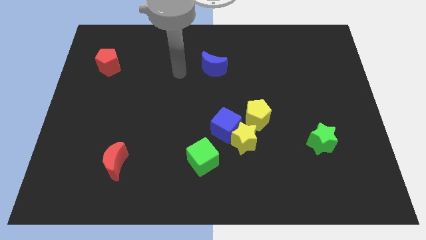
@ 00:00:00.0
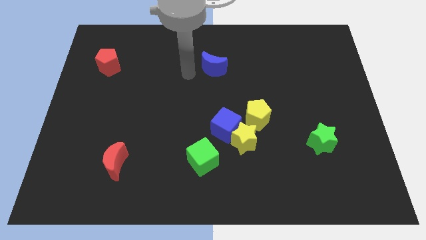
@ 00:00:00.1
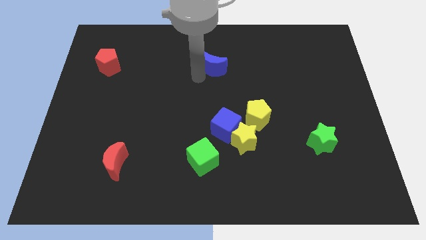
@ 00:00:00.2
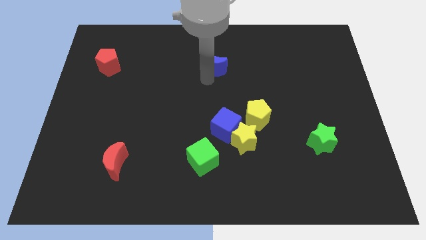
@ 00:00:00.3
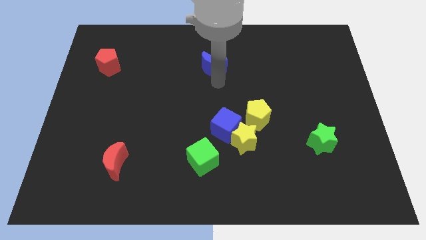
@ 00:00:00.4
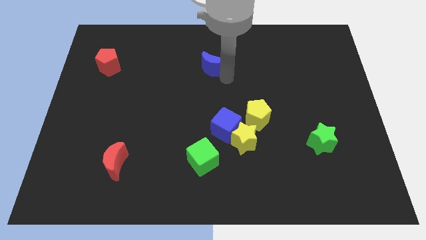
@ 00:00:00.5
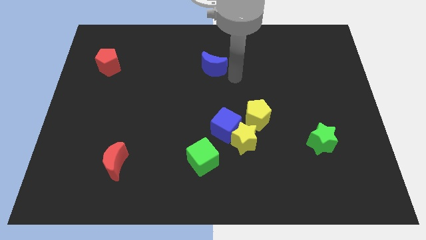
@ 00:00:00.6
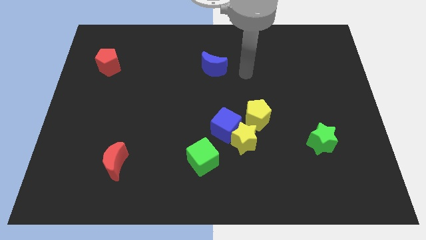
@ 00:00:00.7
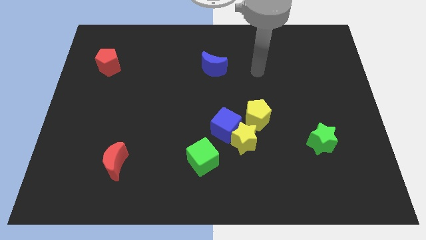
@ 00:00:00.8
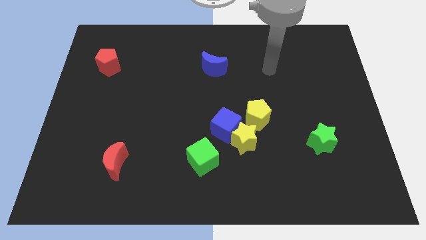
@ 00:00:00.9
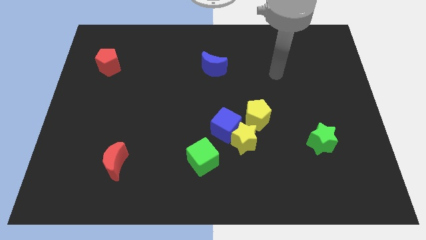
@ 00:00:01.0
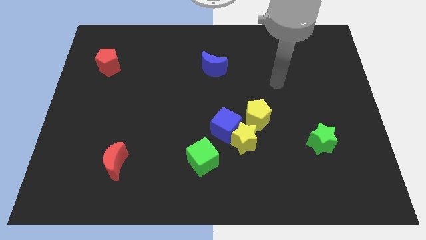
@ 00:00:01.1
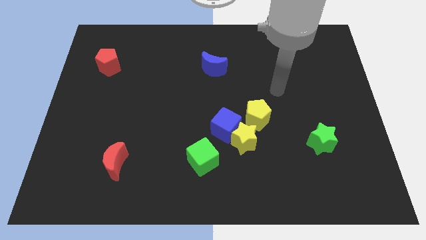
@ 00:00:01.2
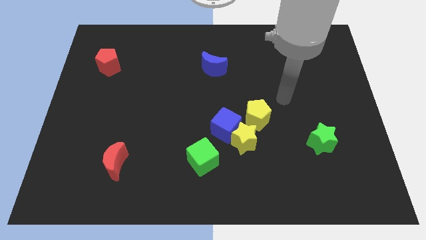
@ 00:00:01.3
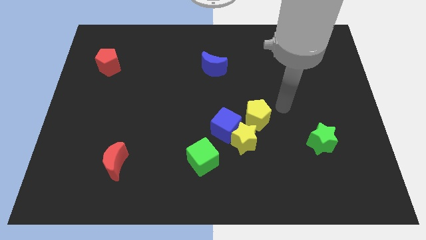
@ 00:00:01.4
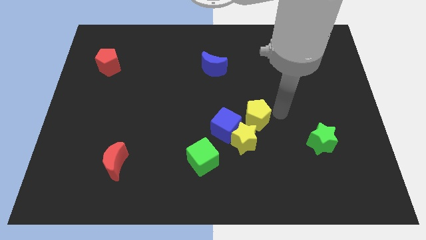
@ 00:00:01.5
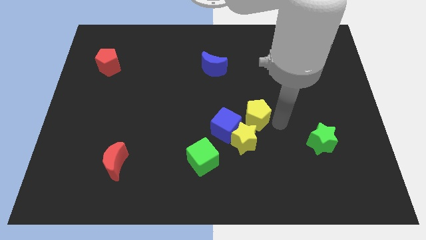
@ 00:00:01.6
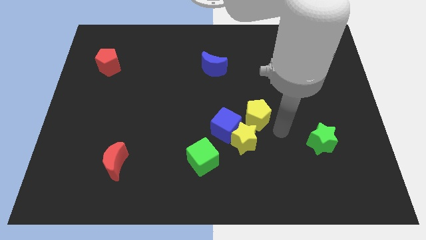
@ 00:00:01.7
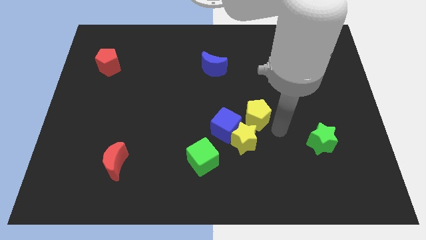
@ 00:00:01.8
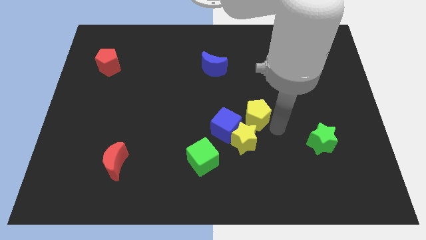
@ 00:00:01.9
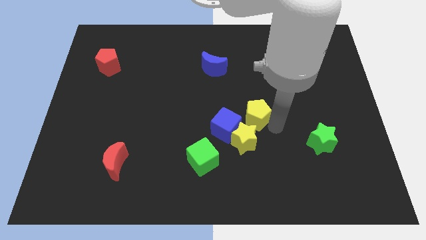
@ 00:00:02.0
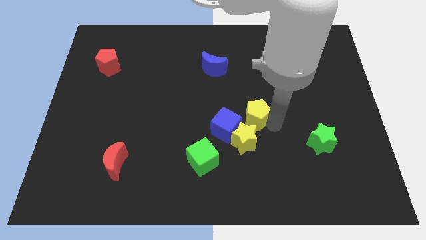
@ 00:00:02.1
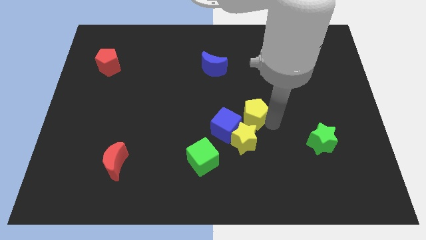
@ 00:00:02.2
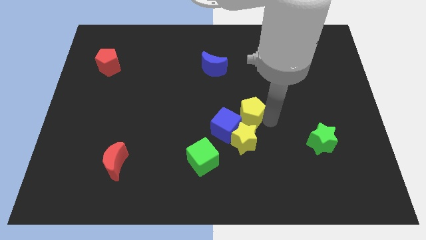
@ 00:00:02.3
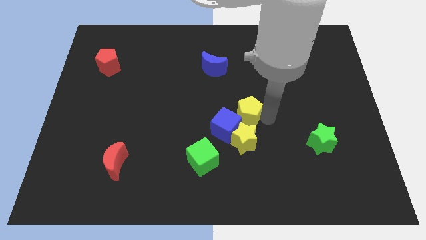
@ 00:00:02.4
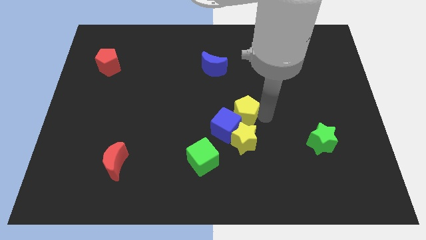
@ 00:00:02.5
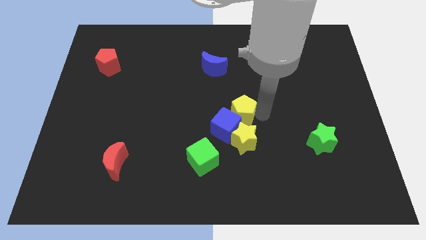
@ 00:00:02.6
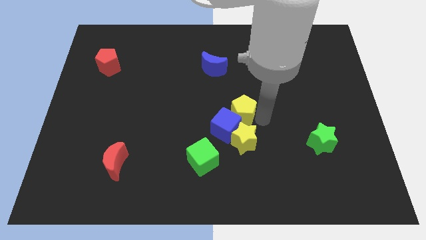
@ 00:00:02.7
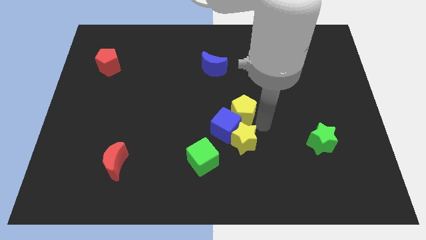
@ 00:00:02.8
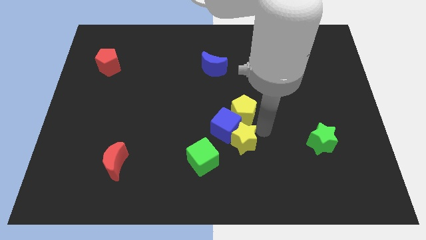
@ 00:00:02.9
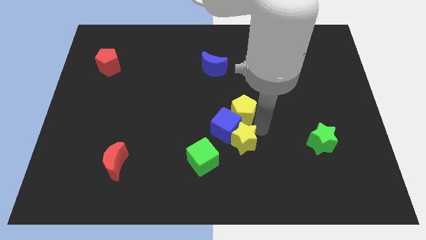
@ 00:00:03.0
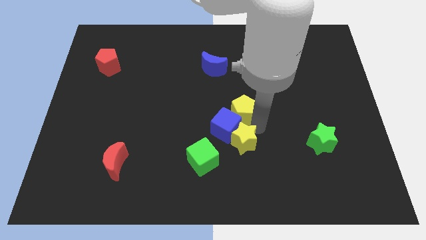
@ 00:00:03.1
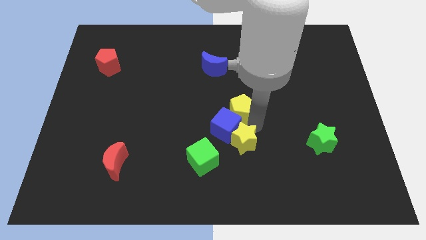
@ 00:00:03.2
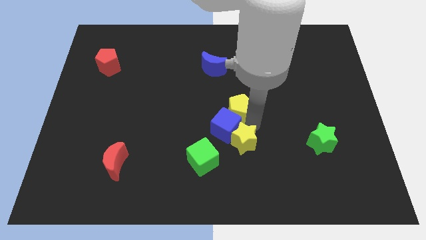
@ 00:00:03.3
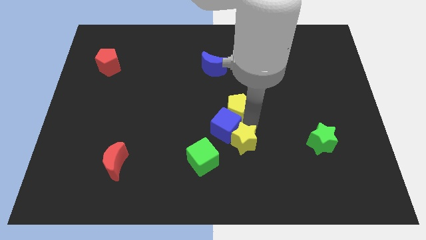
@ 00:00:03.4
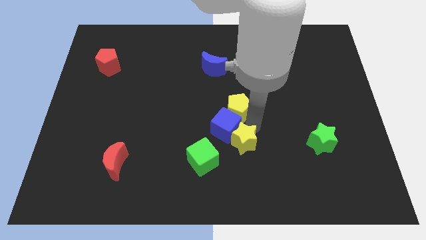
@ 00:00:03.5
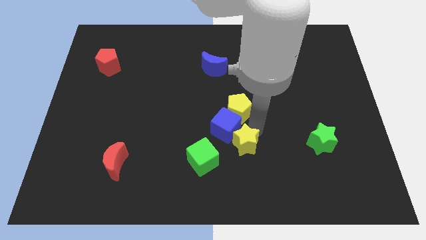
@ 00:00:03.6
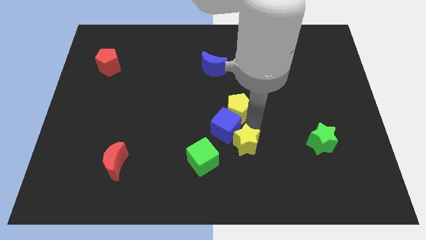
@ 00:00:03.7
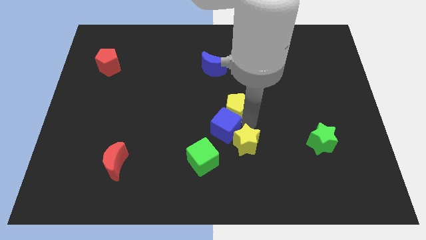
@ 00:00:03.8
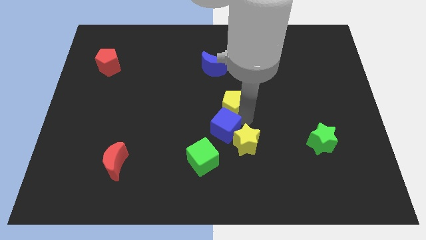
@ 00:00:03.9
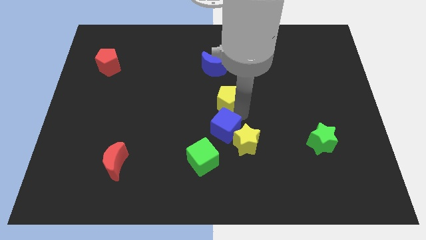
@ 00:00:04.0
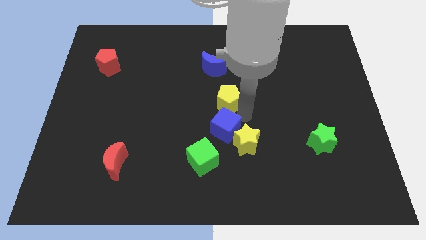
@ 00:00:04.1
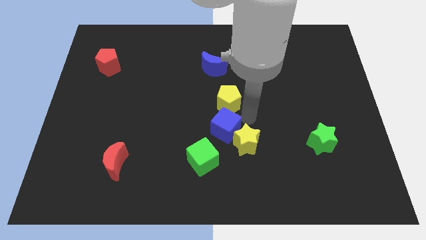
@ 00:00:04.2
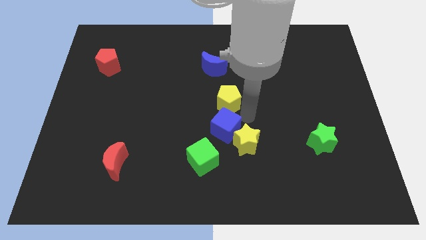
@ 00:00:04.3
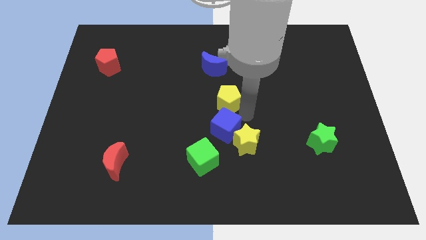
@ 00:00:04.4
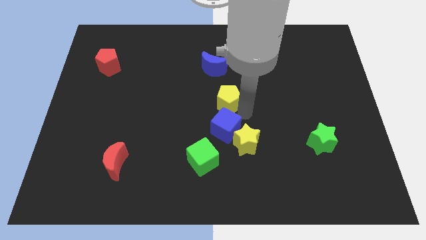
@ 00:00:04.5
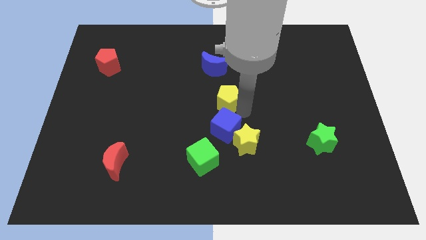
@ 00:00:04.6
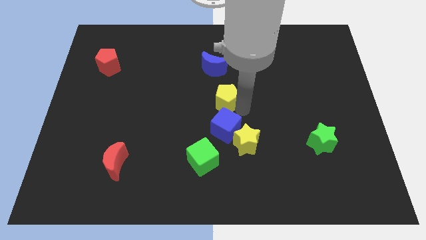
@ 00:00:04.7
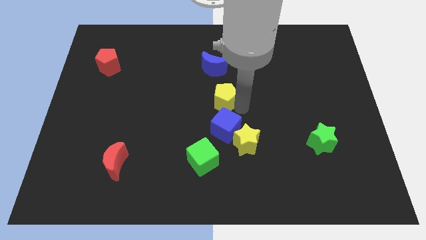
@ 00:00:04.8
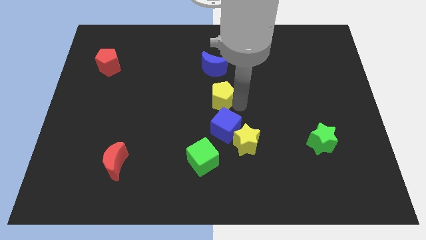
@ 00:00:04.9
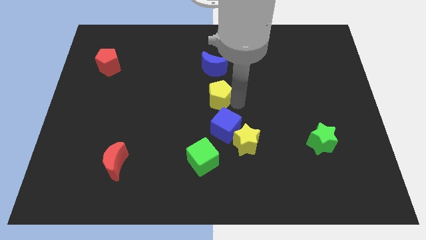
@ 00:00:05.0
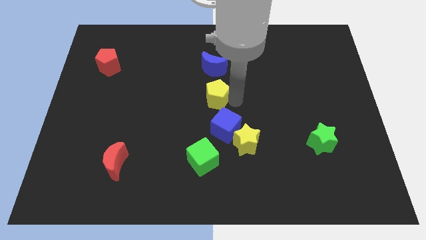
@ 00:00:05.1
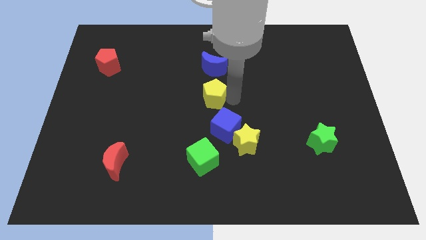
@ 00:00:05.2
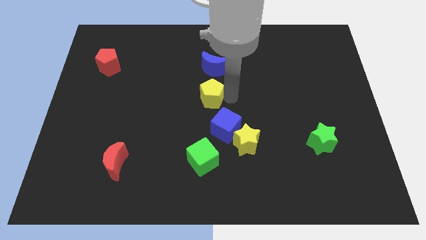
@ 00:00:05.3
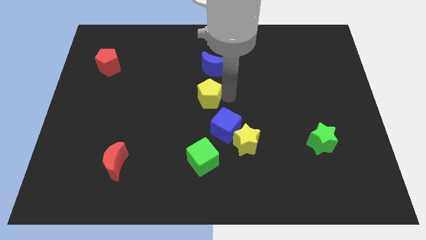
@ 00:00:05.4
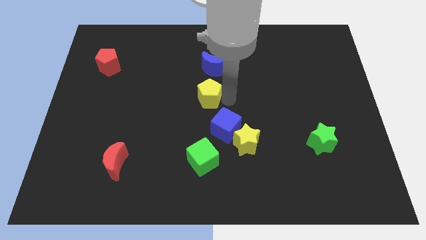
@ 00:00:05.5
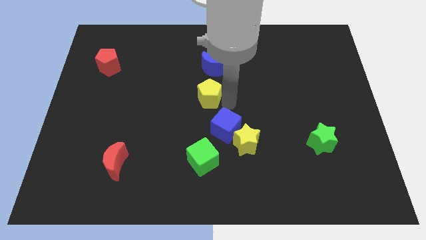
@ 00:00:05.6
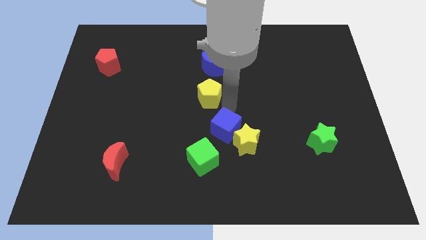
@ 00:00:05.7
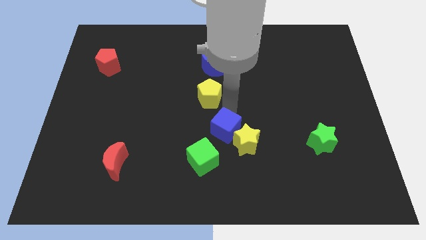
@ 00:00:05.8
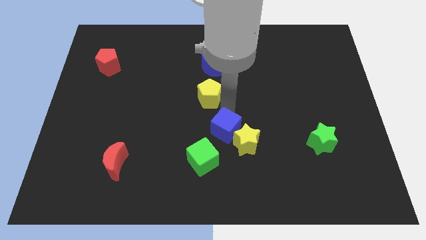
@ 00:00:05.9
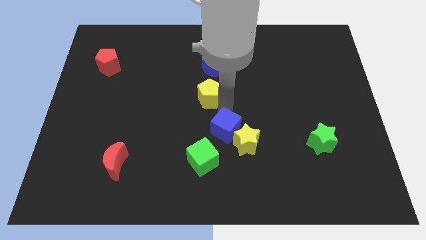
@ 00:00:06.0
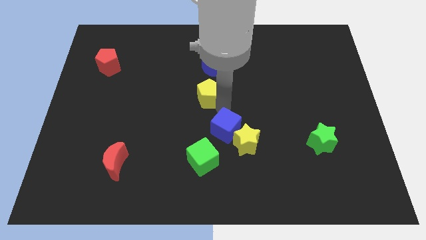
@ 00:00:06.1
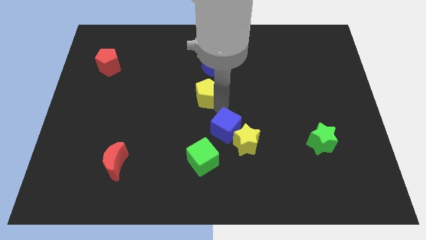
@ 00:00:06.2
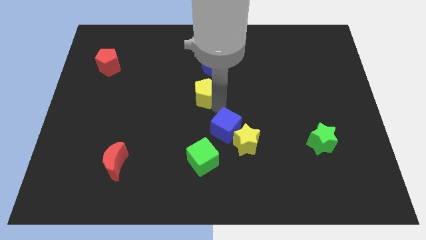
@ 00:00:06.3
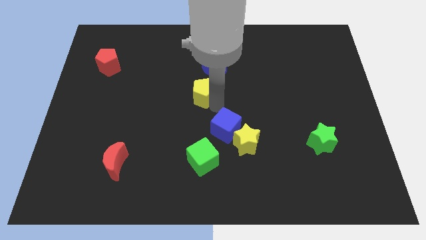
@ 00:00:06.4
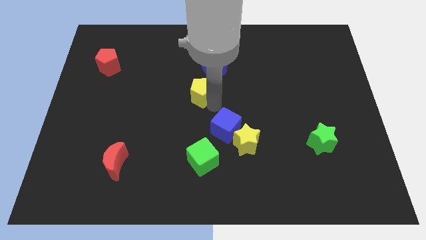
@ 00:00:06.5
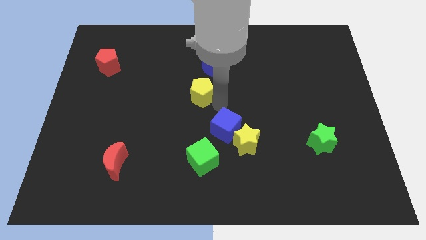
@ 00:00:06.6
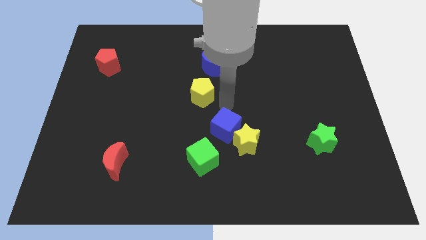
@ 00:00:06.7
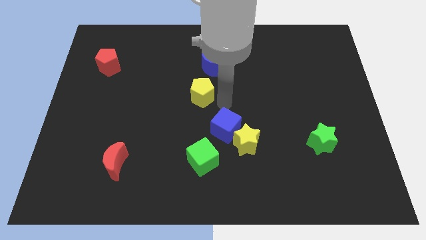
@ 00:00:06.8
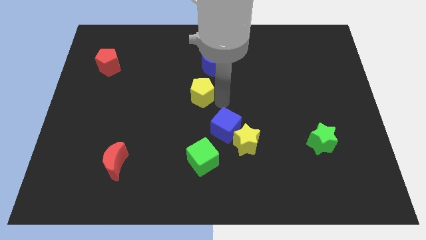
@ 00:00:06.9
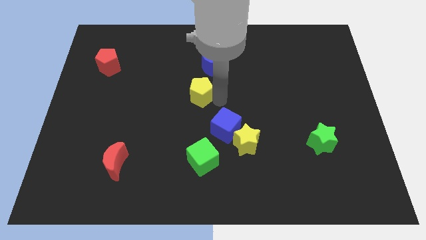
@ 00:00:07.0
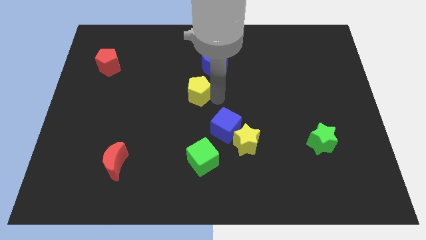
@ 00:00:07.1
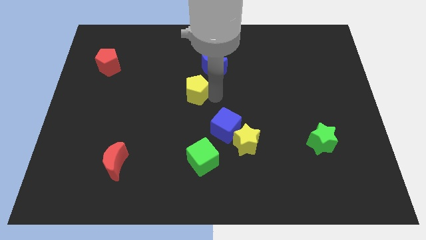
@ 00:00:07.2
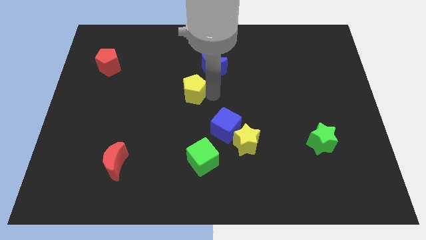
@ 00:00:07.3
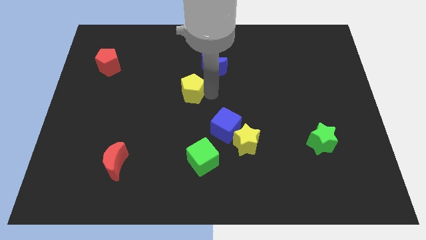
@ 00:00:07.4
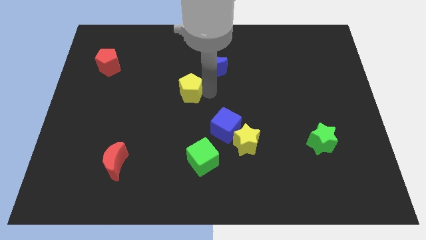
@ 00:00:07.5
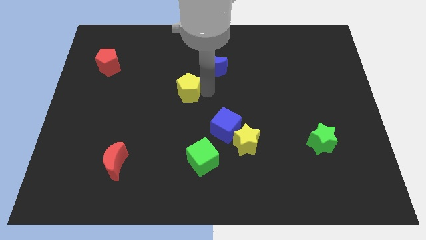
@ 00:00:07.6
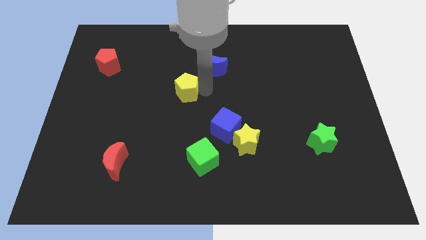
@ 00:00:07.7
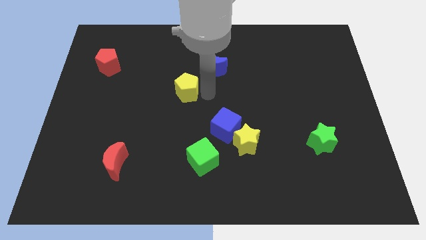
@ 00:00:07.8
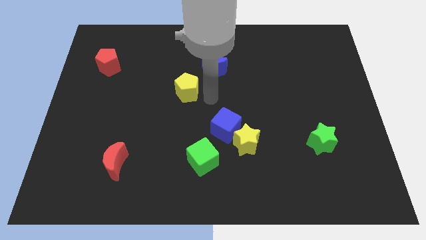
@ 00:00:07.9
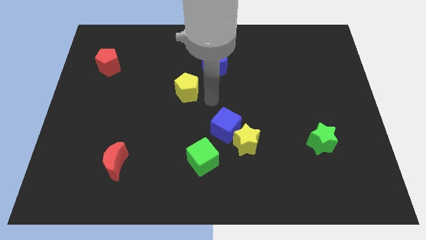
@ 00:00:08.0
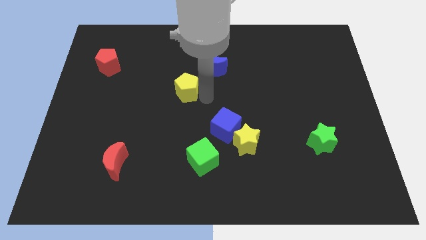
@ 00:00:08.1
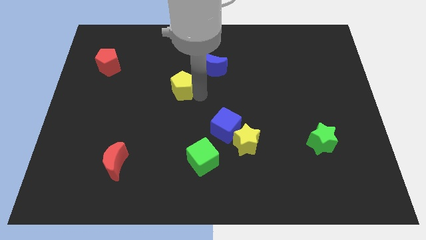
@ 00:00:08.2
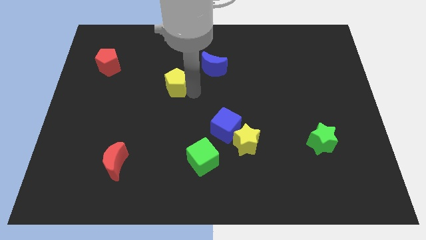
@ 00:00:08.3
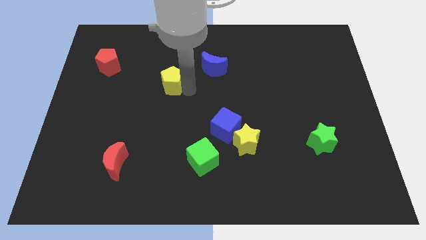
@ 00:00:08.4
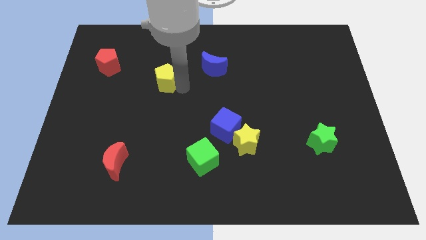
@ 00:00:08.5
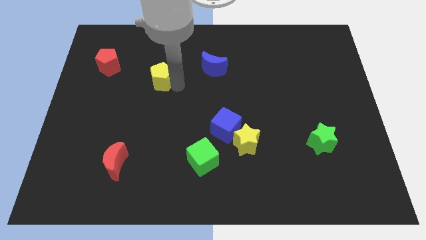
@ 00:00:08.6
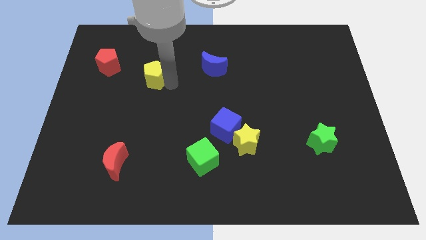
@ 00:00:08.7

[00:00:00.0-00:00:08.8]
put the yellow pentagon right of the red pentagon
